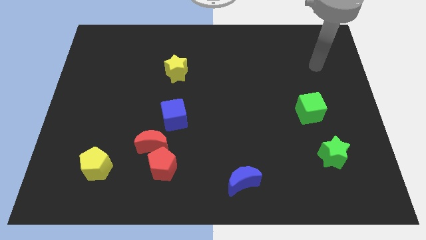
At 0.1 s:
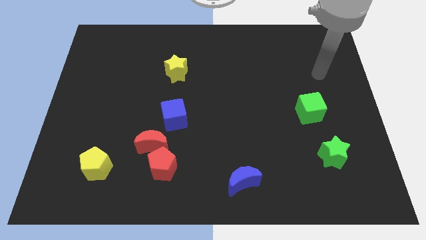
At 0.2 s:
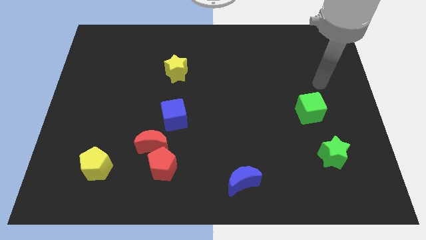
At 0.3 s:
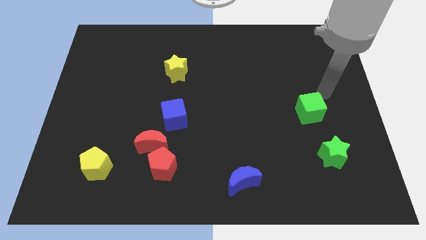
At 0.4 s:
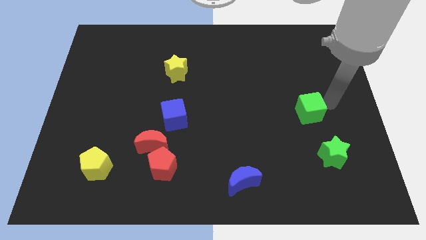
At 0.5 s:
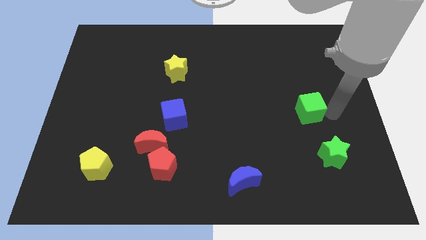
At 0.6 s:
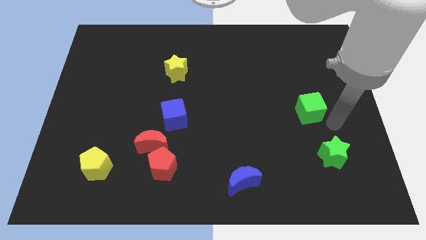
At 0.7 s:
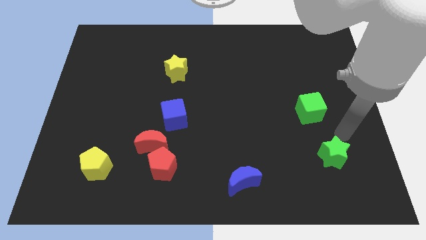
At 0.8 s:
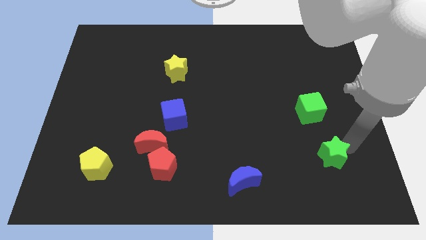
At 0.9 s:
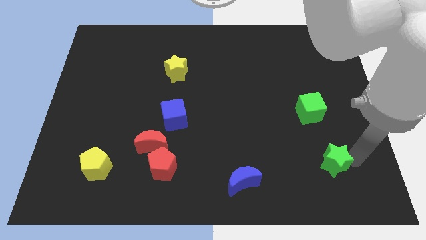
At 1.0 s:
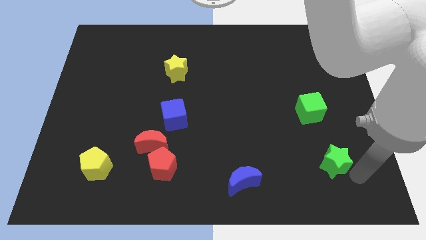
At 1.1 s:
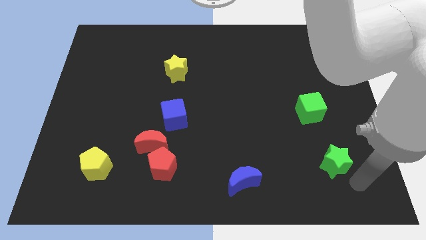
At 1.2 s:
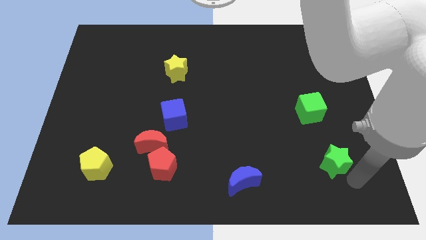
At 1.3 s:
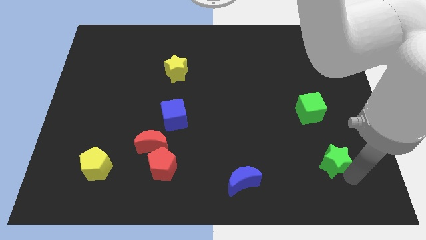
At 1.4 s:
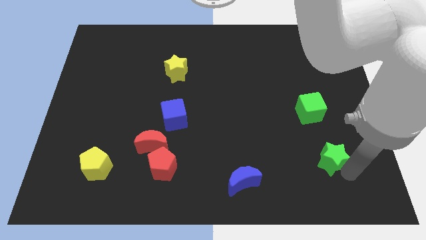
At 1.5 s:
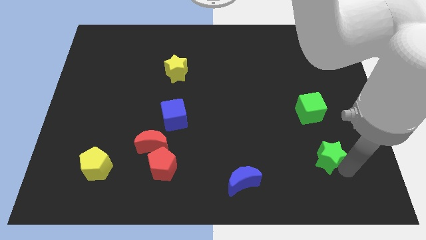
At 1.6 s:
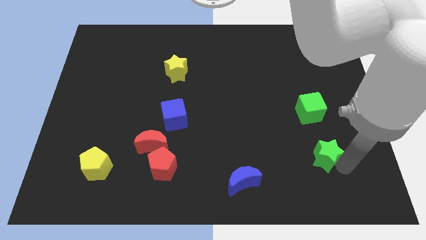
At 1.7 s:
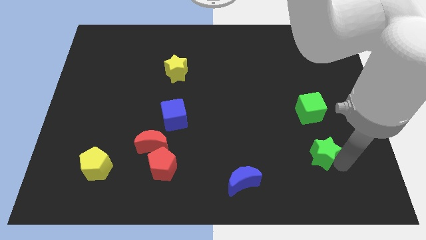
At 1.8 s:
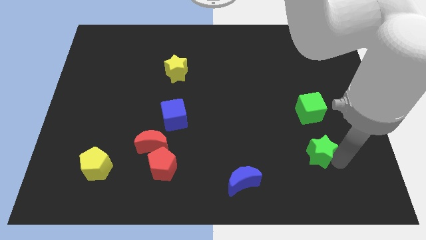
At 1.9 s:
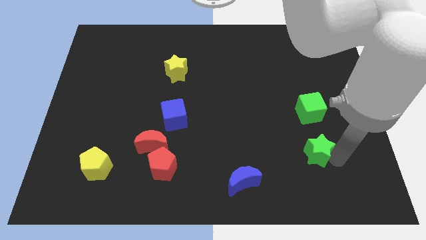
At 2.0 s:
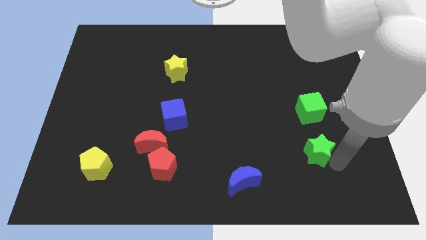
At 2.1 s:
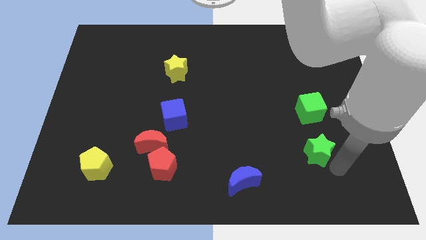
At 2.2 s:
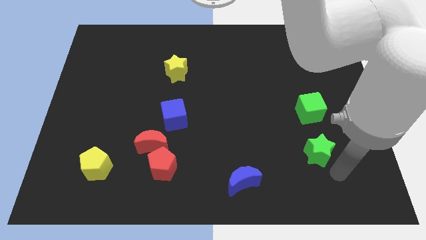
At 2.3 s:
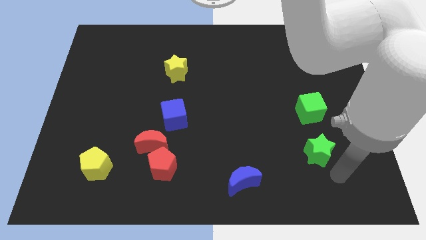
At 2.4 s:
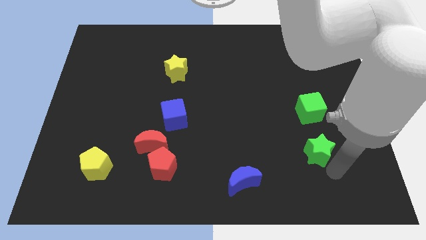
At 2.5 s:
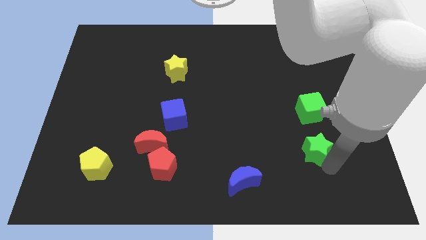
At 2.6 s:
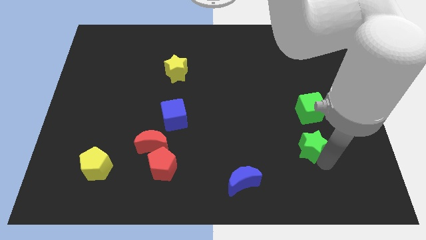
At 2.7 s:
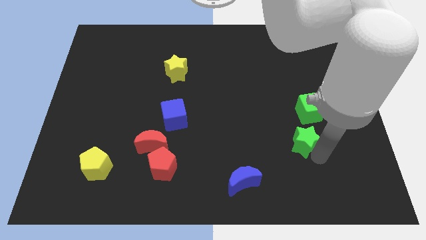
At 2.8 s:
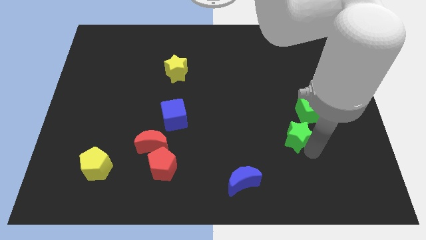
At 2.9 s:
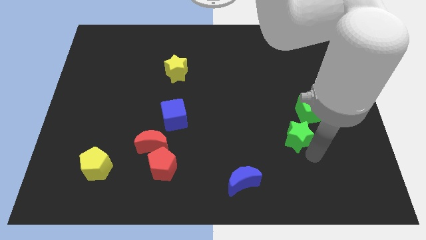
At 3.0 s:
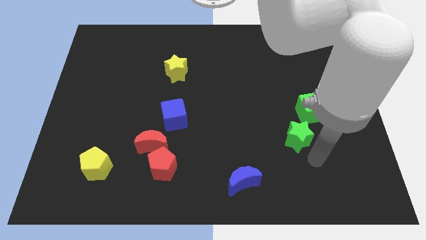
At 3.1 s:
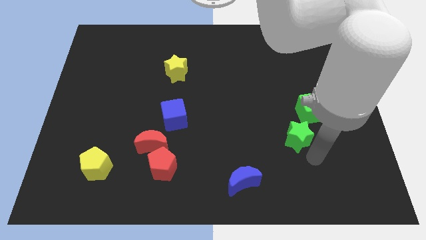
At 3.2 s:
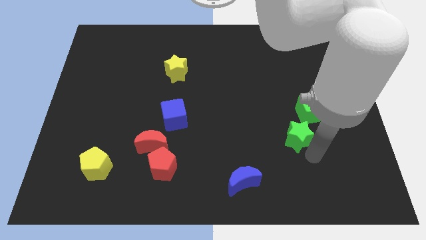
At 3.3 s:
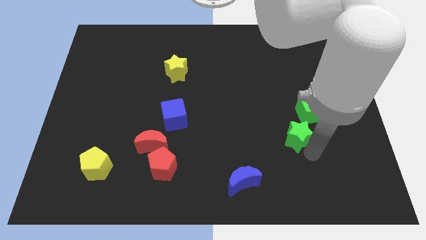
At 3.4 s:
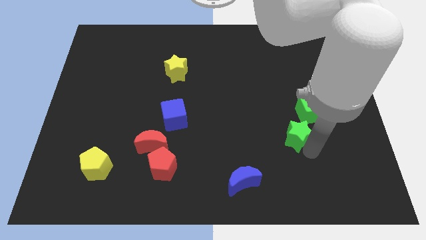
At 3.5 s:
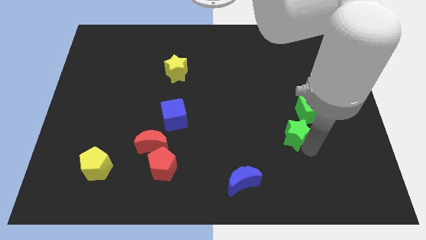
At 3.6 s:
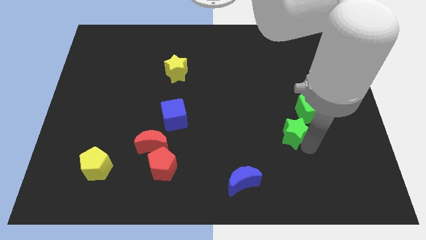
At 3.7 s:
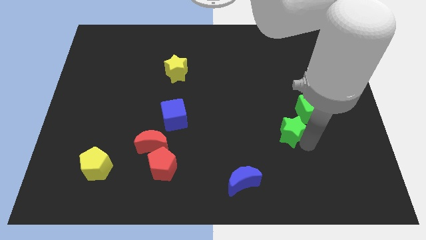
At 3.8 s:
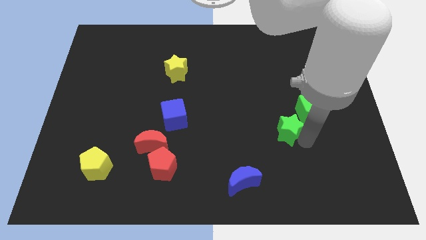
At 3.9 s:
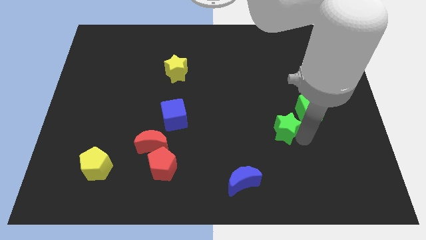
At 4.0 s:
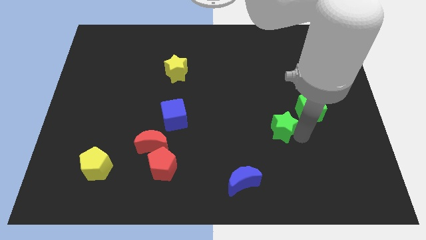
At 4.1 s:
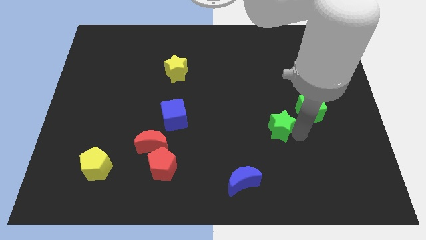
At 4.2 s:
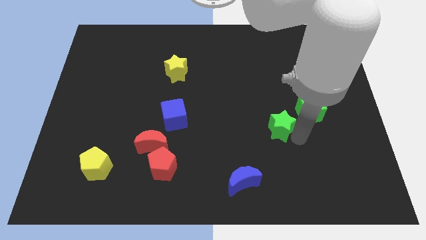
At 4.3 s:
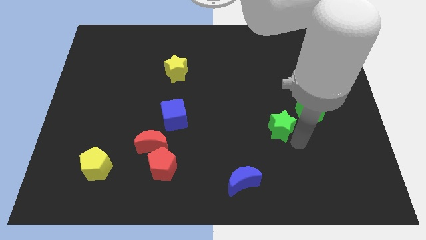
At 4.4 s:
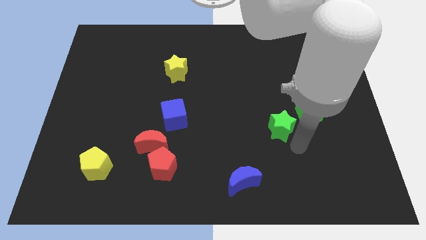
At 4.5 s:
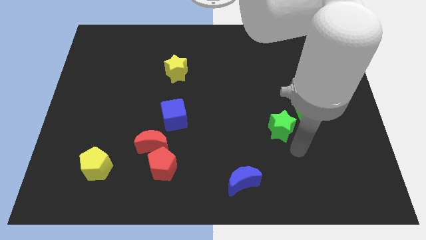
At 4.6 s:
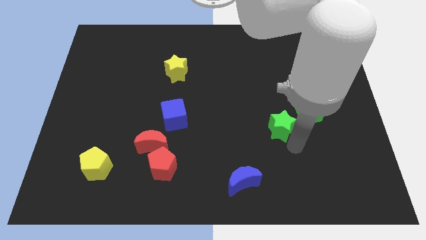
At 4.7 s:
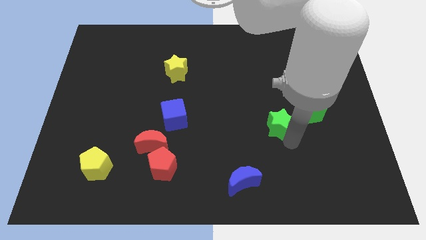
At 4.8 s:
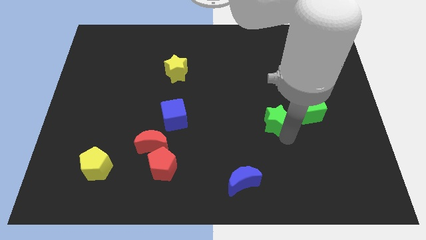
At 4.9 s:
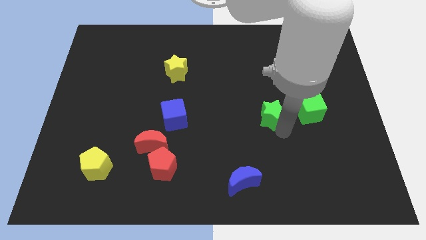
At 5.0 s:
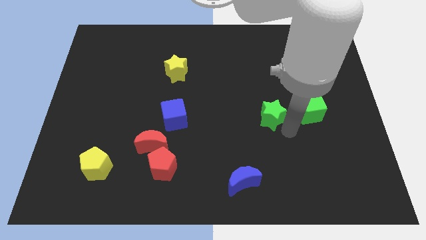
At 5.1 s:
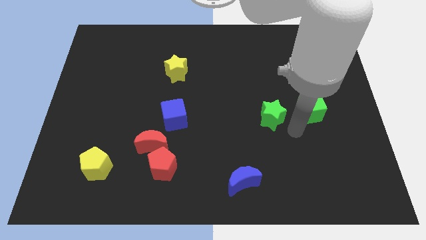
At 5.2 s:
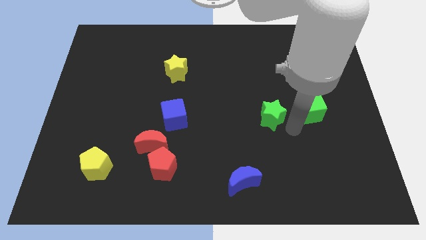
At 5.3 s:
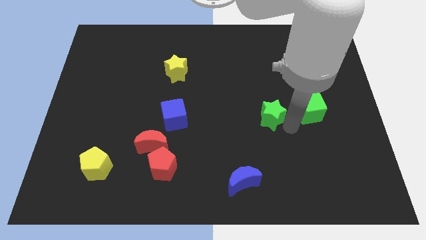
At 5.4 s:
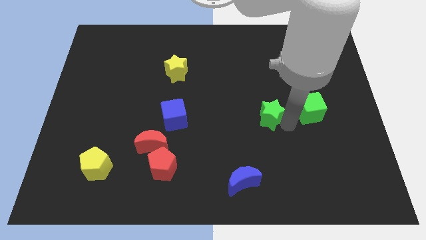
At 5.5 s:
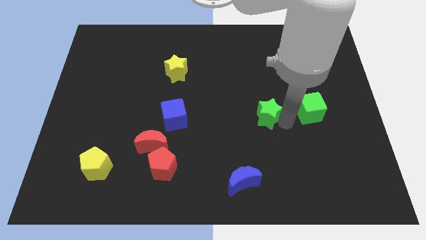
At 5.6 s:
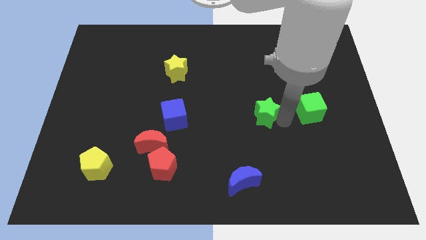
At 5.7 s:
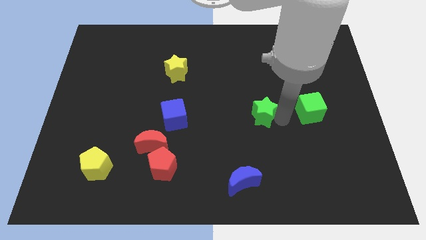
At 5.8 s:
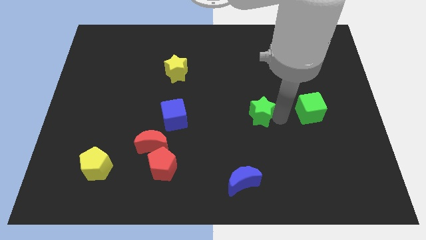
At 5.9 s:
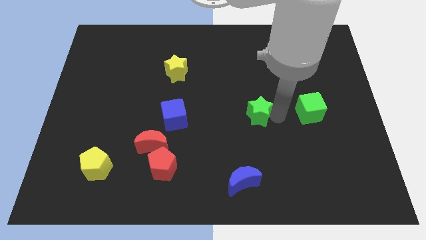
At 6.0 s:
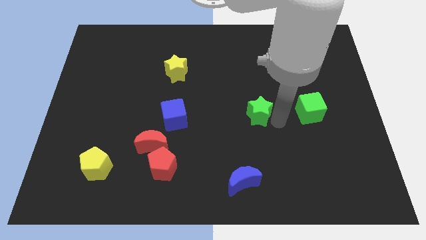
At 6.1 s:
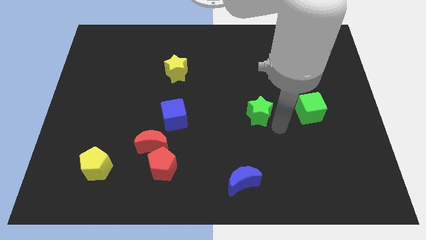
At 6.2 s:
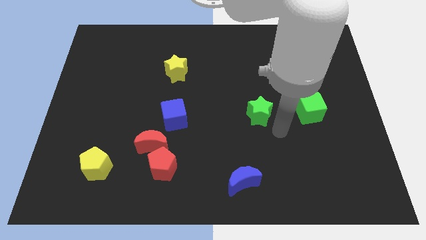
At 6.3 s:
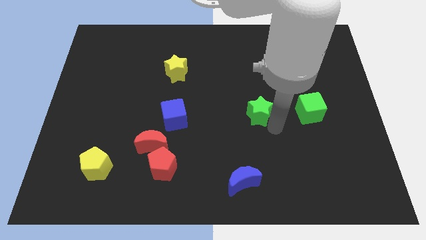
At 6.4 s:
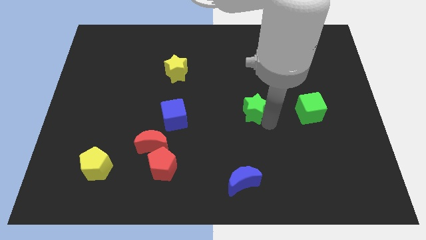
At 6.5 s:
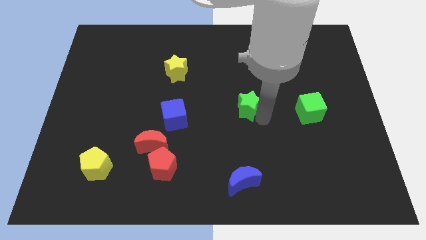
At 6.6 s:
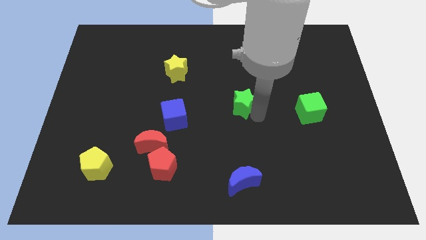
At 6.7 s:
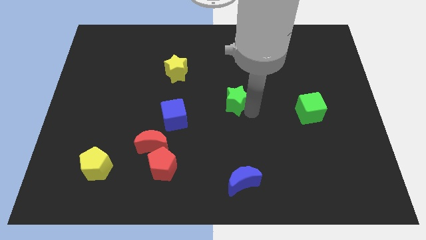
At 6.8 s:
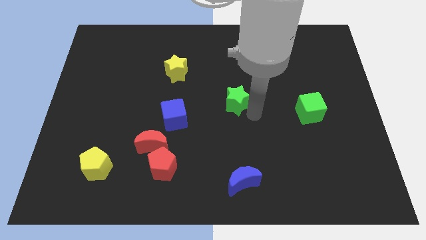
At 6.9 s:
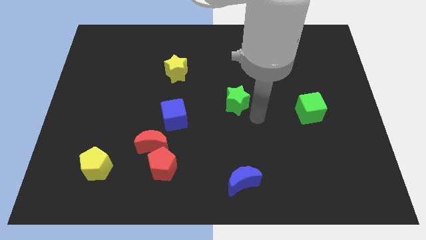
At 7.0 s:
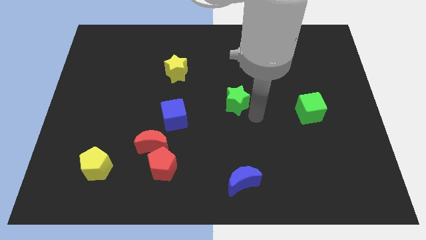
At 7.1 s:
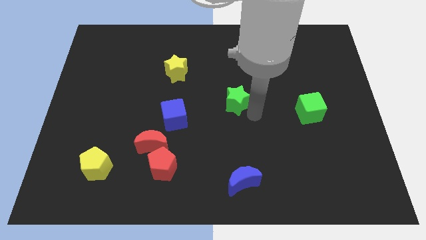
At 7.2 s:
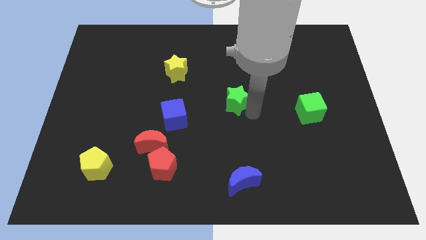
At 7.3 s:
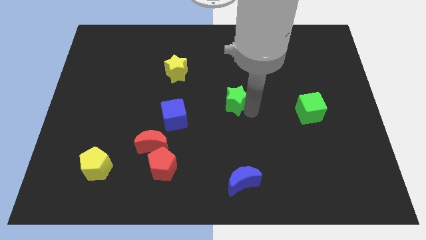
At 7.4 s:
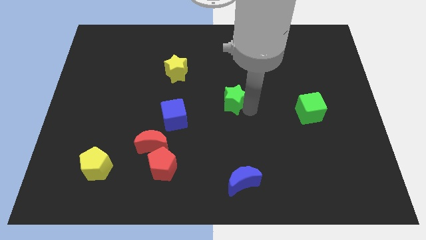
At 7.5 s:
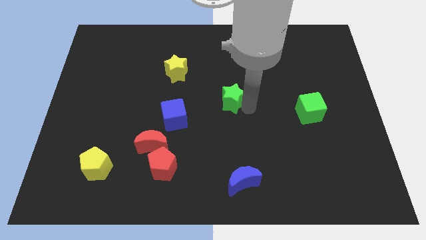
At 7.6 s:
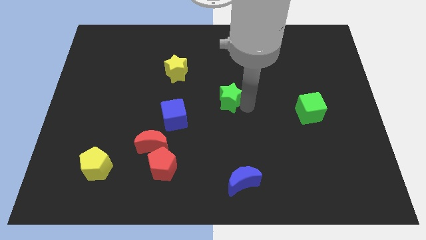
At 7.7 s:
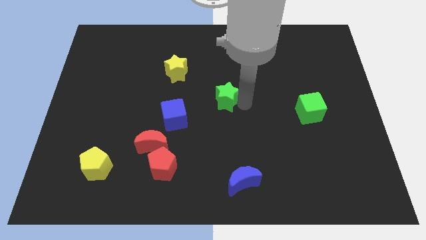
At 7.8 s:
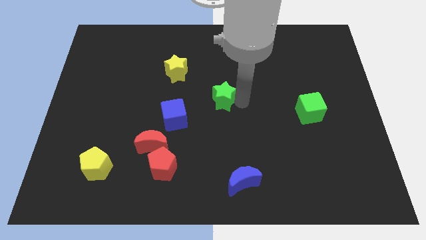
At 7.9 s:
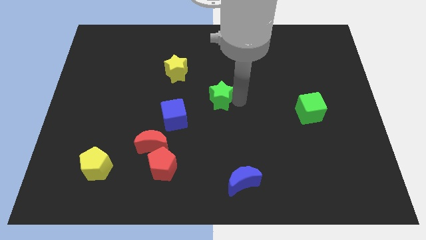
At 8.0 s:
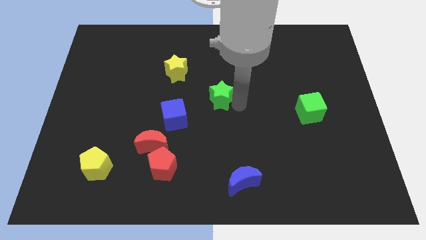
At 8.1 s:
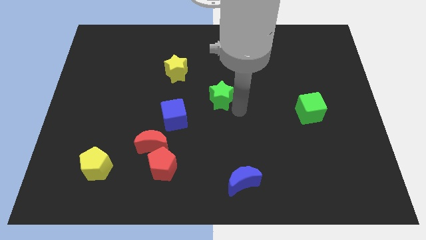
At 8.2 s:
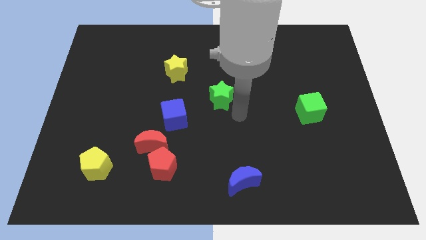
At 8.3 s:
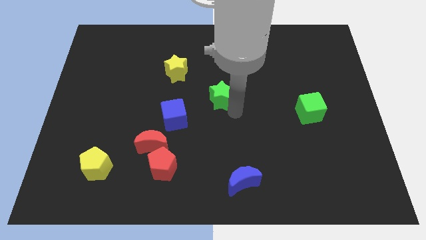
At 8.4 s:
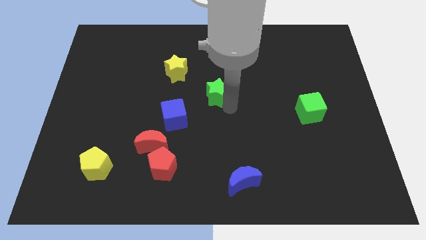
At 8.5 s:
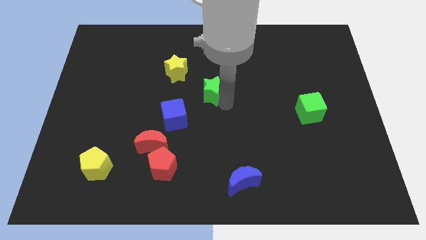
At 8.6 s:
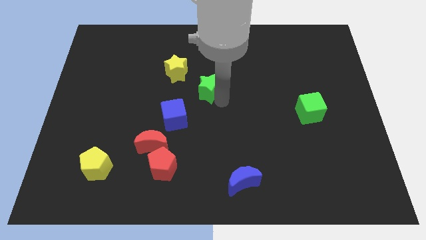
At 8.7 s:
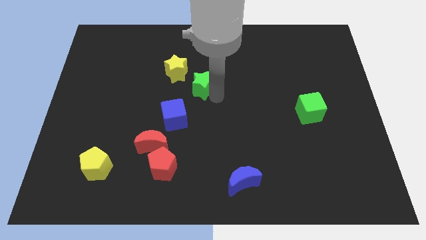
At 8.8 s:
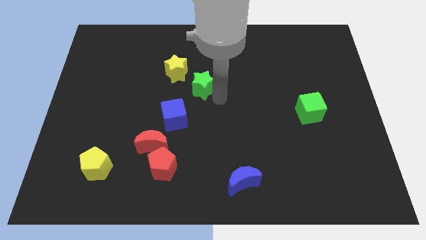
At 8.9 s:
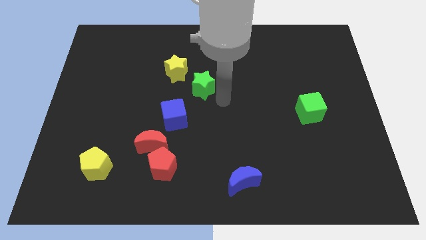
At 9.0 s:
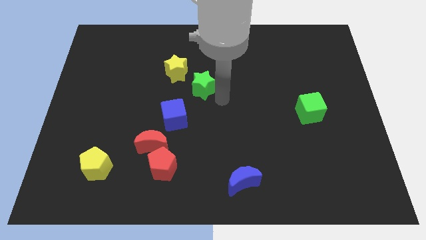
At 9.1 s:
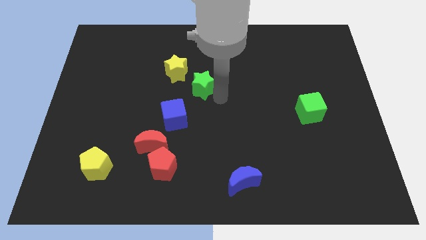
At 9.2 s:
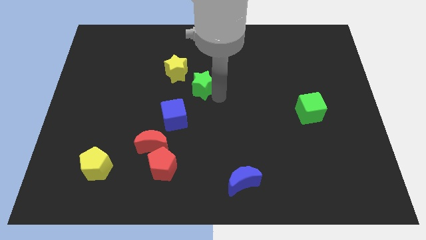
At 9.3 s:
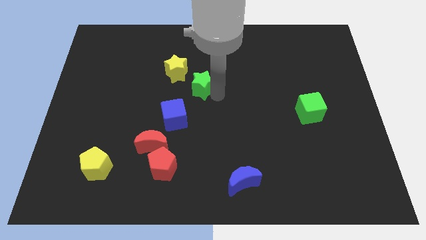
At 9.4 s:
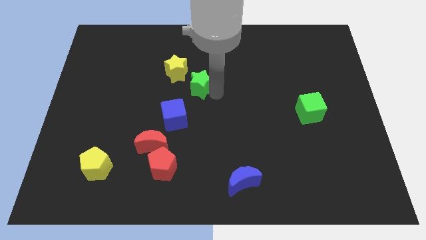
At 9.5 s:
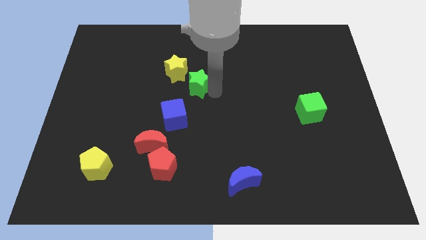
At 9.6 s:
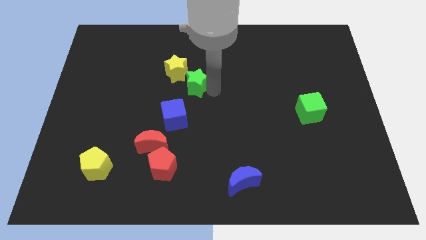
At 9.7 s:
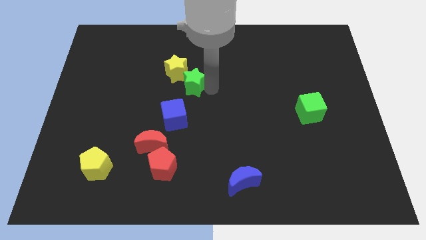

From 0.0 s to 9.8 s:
put the green star towards the yellow star
